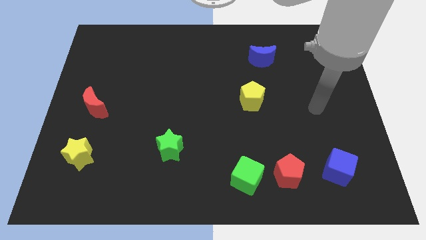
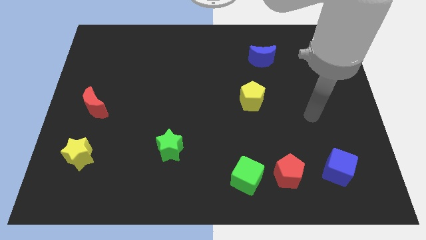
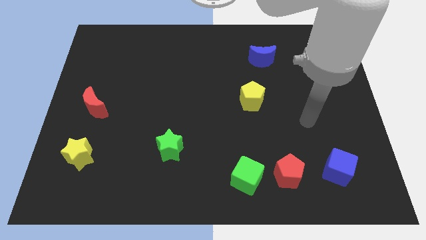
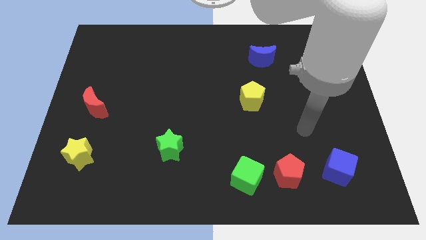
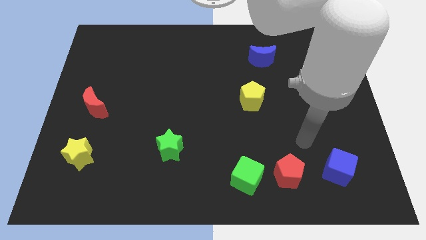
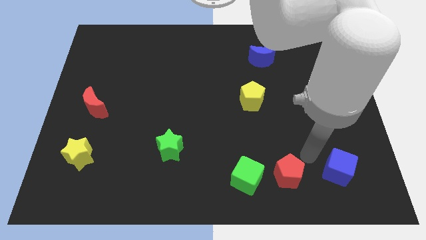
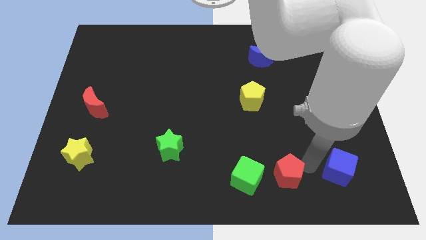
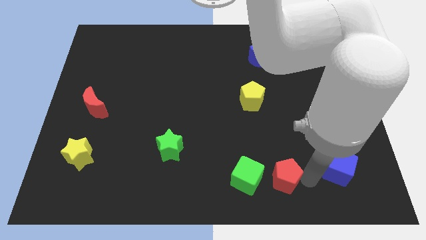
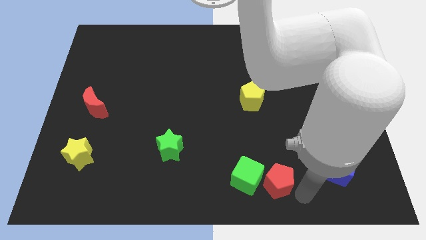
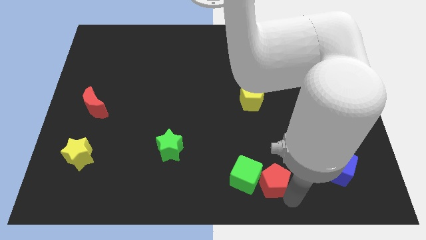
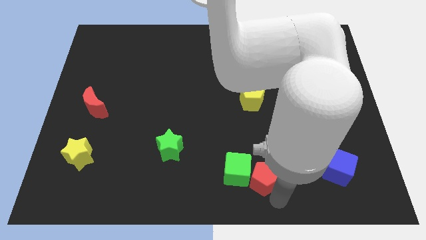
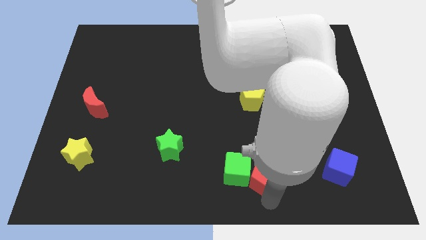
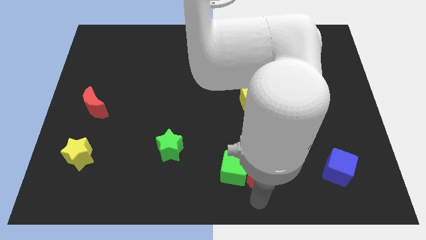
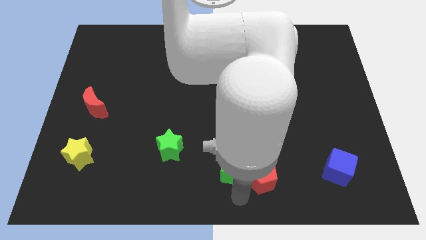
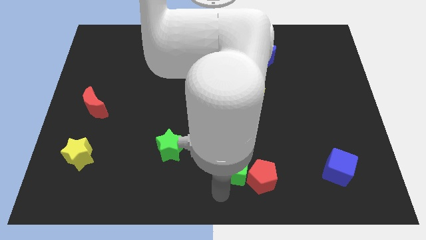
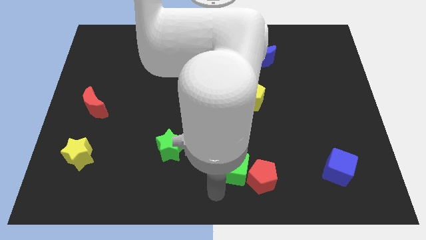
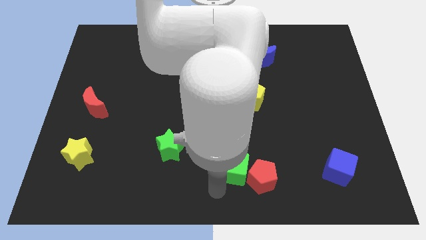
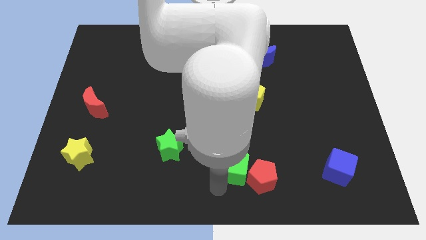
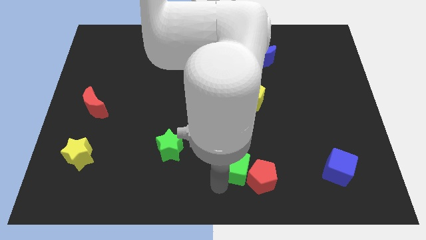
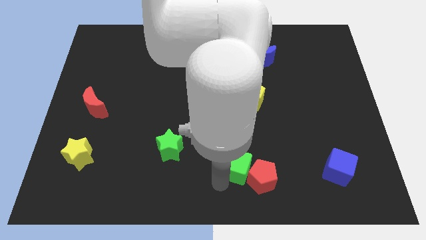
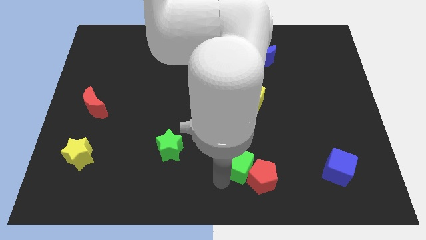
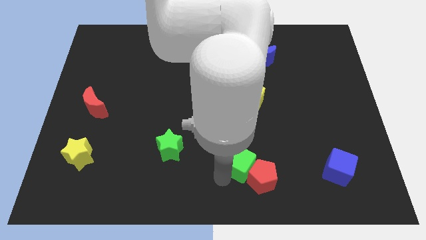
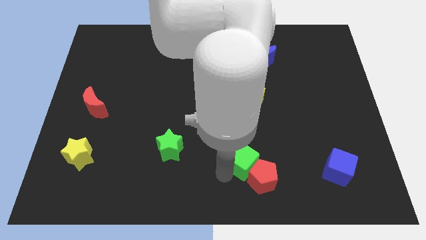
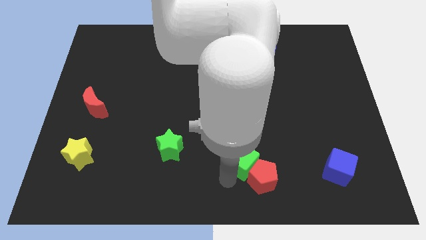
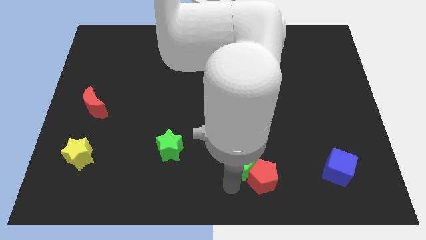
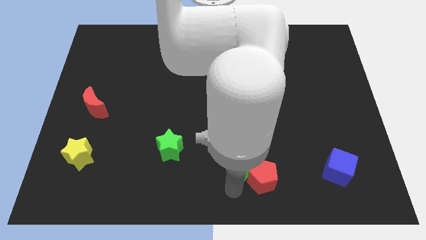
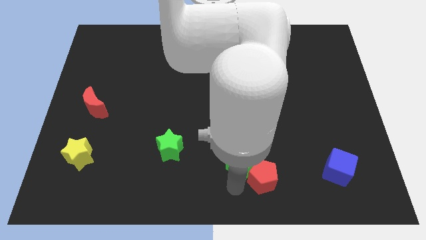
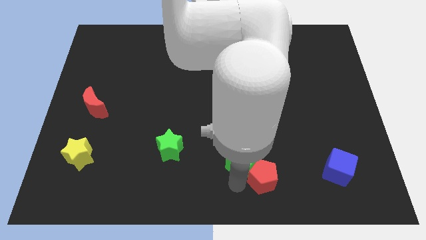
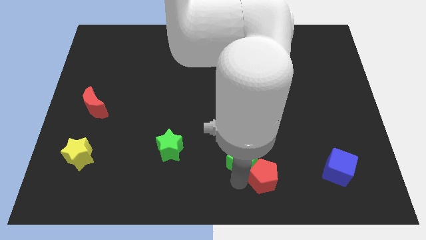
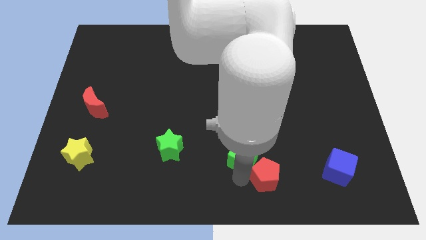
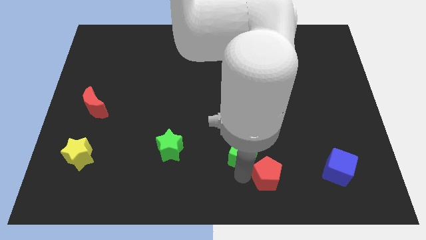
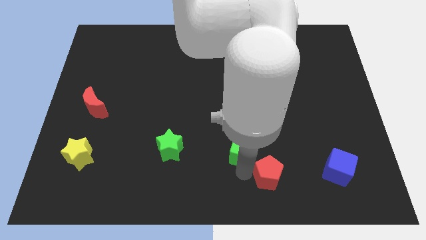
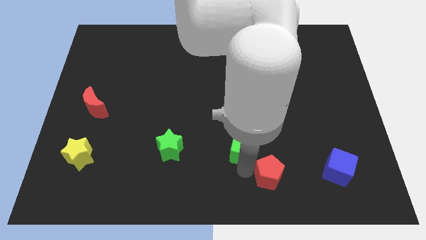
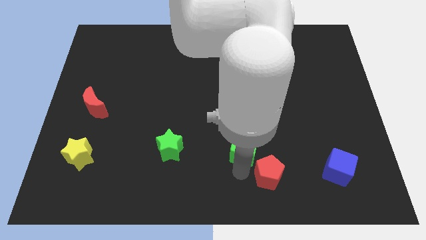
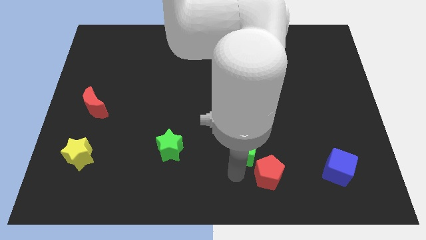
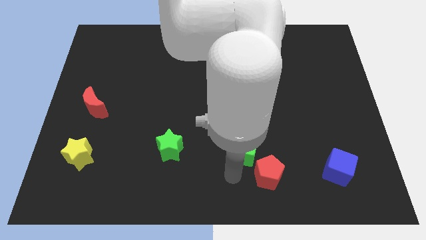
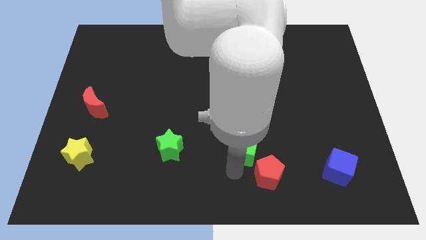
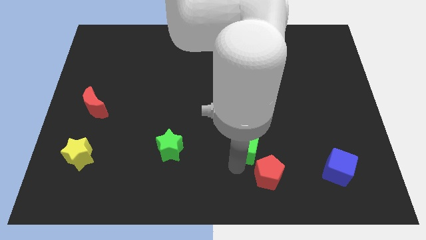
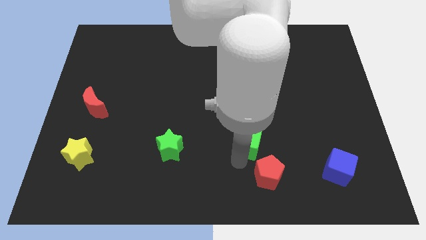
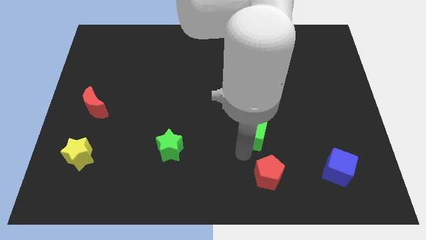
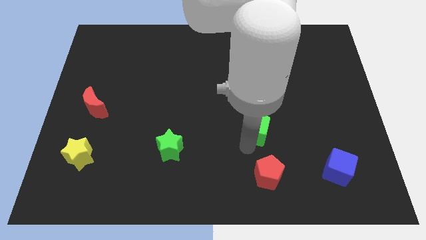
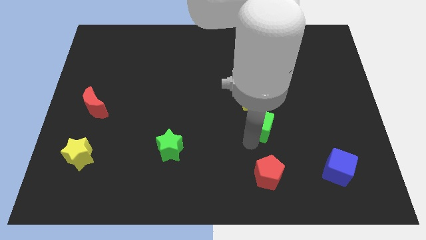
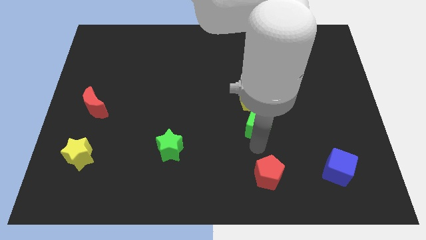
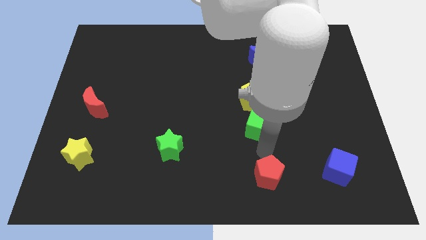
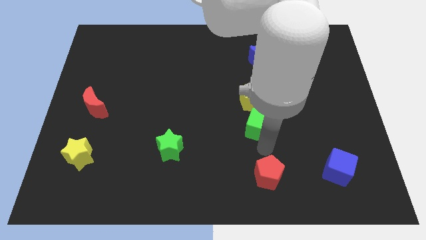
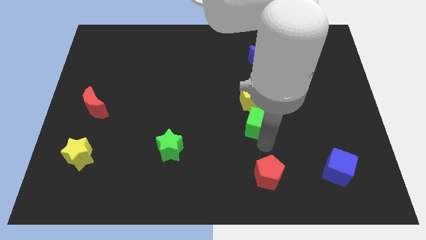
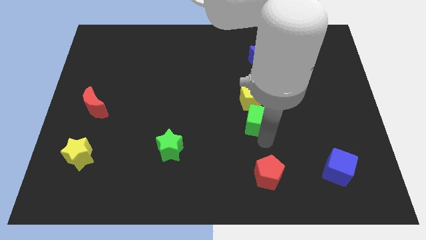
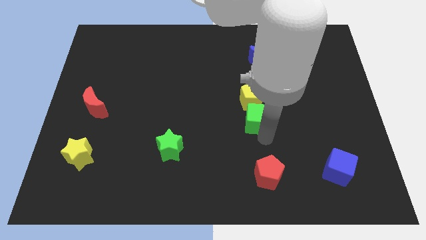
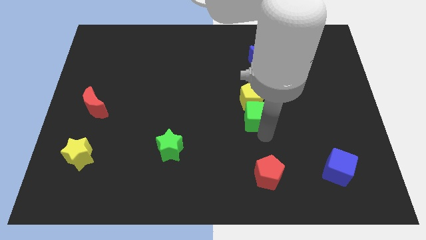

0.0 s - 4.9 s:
slide the green cube close to the yellow pentagon

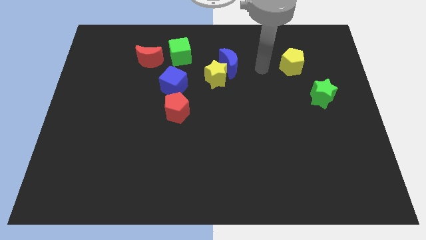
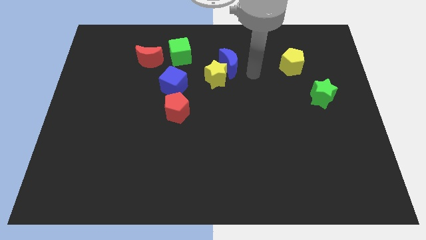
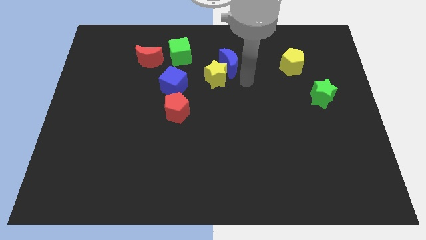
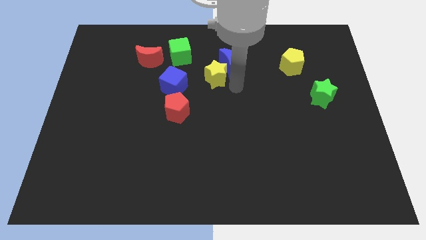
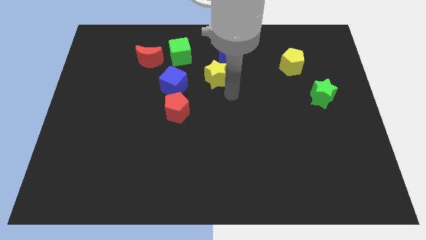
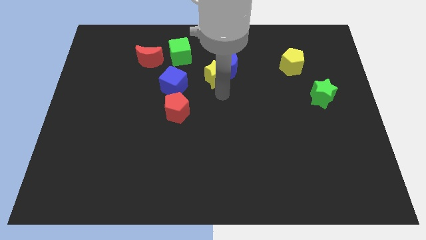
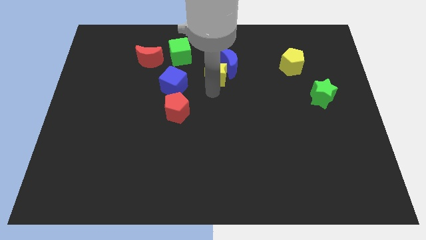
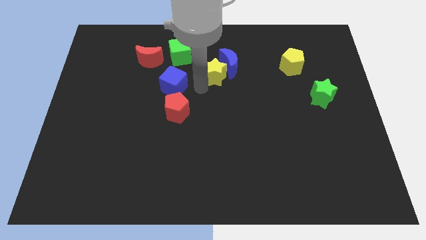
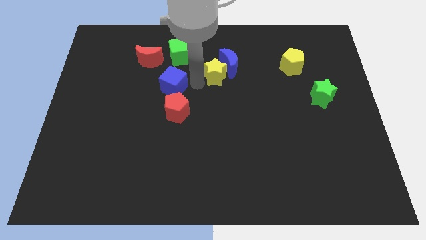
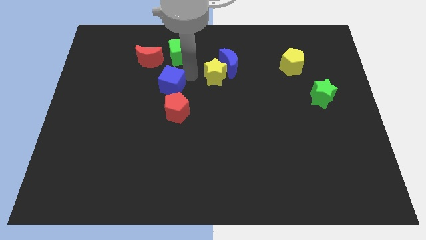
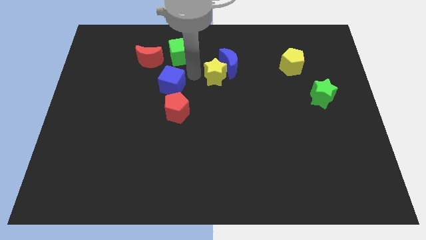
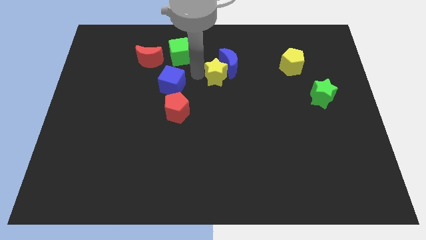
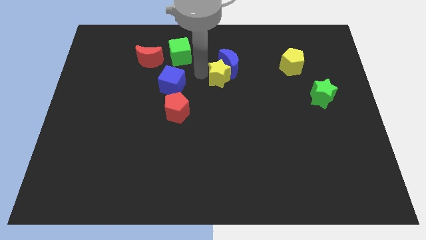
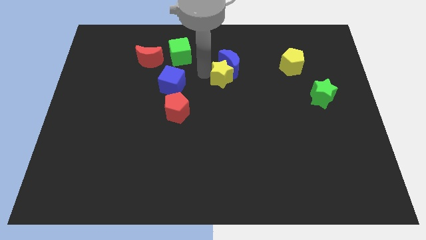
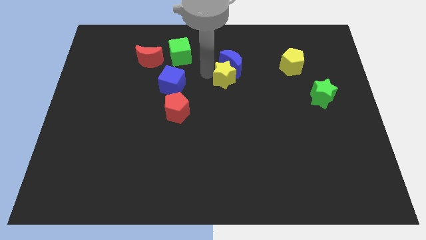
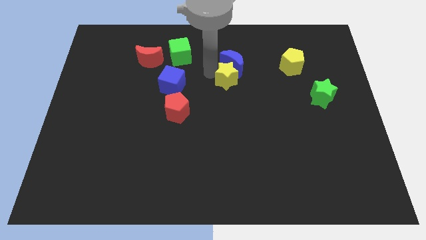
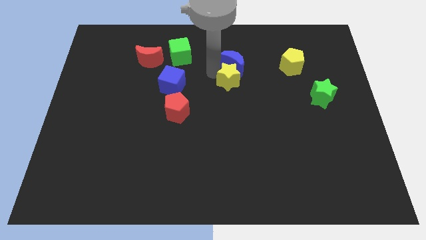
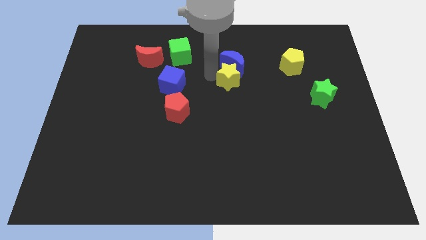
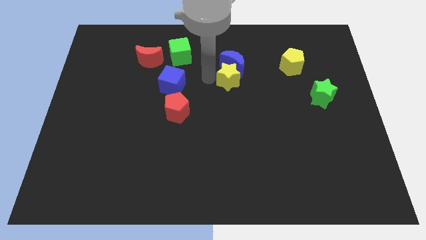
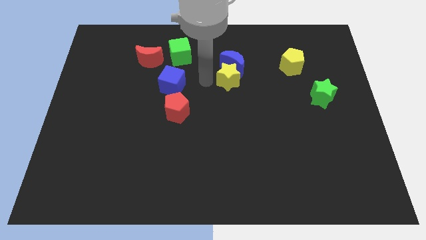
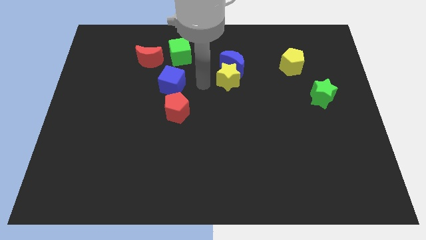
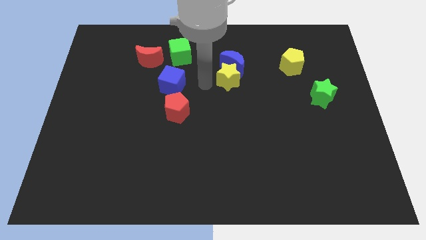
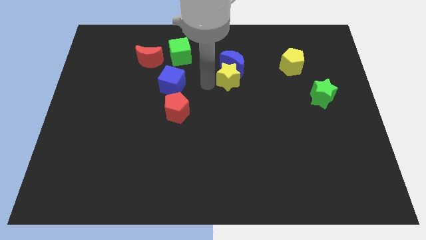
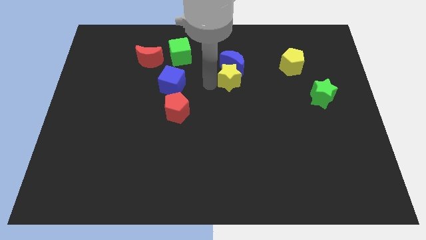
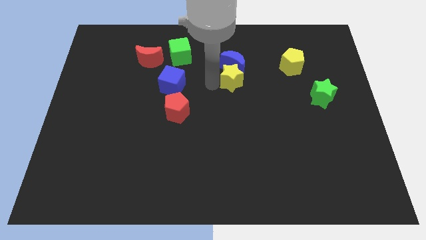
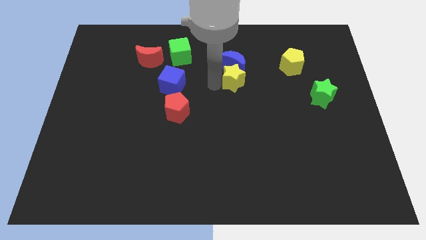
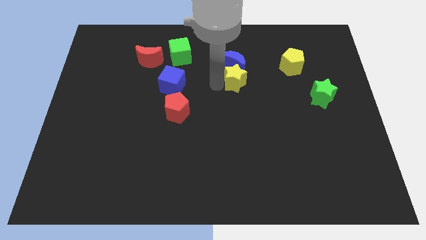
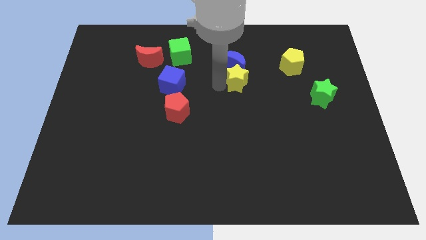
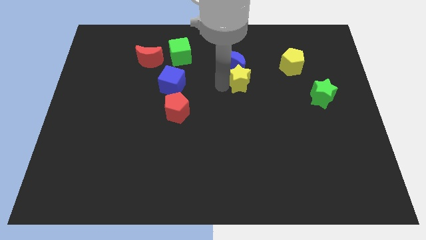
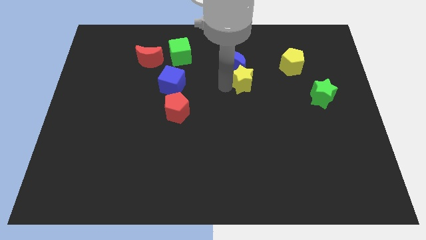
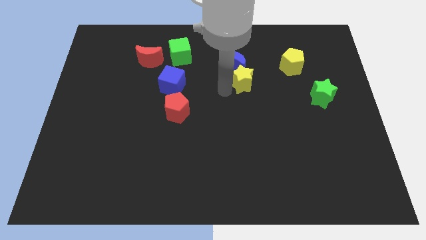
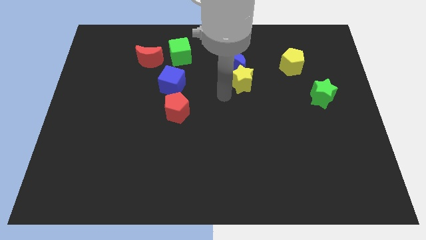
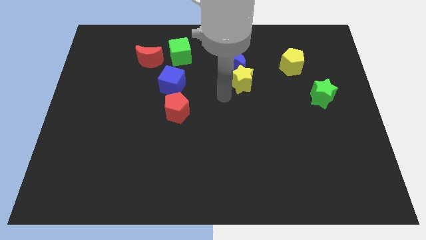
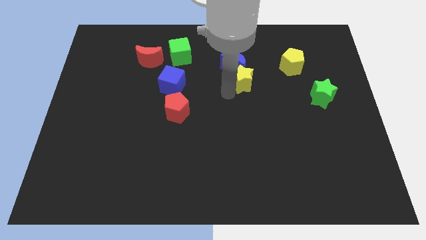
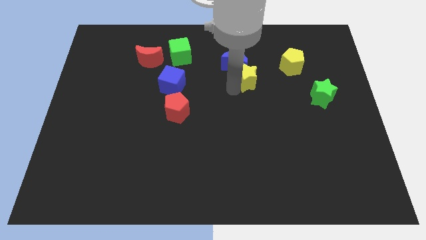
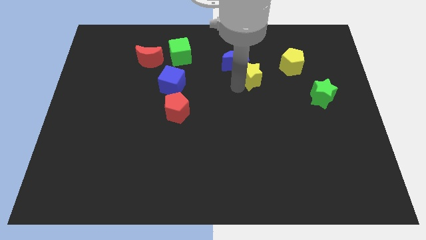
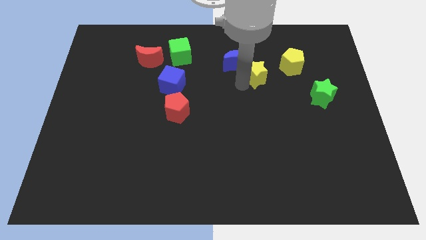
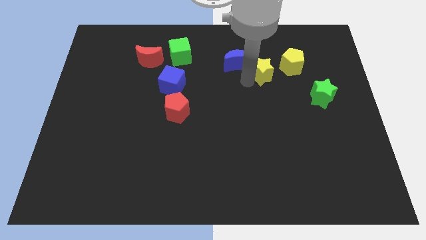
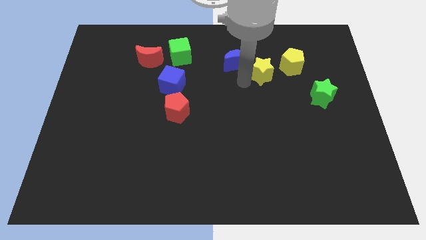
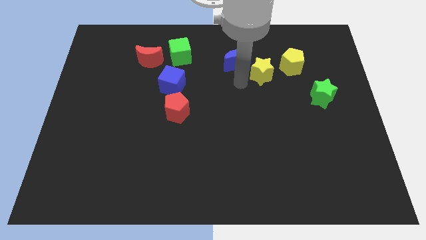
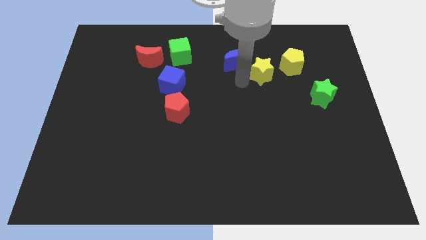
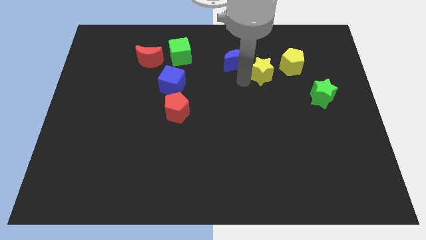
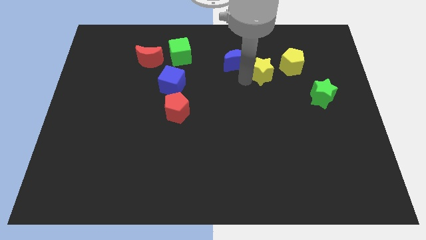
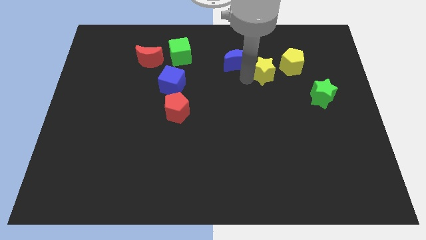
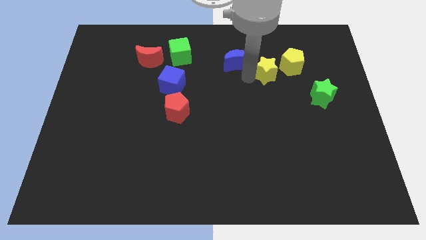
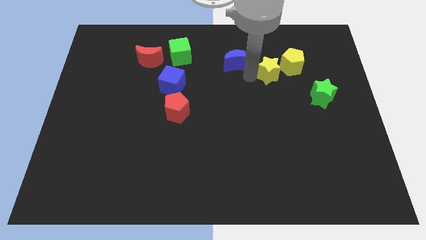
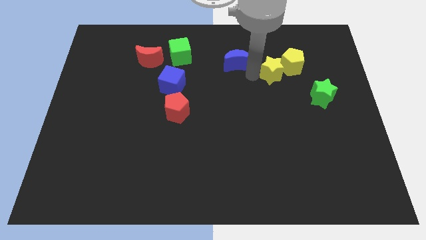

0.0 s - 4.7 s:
push the yellow star towards the yellow pentagon
